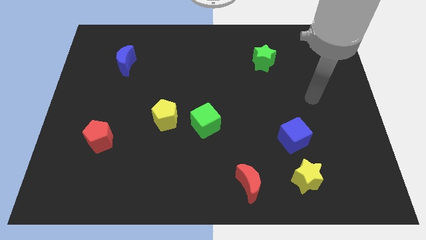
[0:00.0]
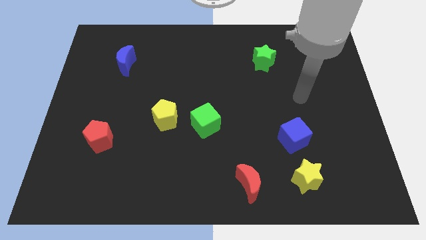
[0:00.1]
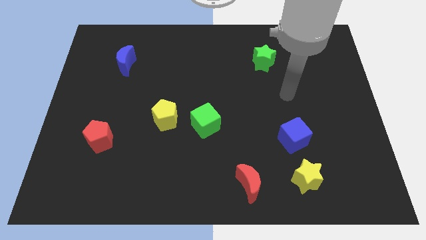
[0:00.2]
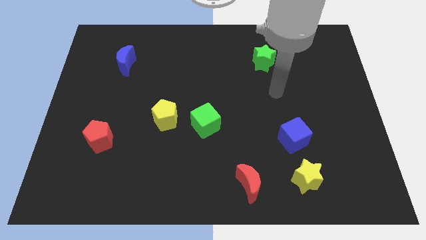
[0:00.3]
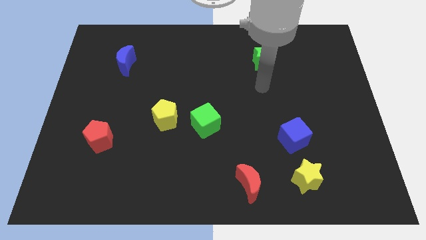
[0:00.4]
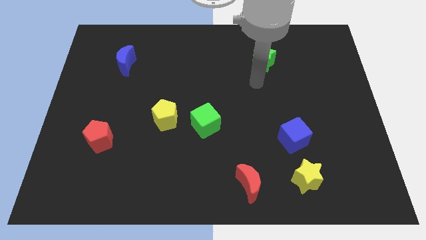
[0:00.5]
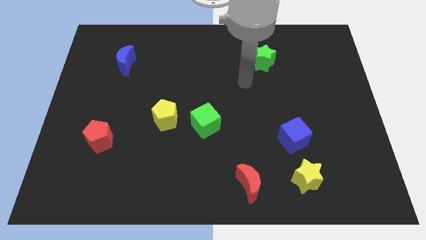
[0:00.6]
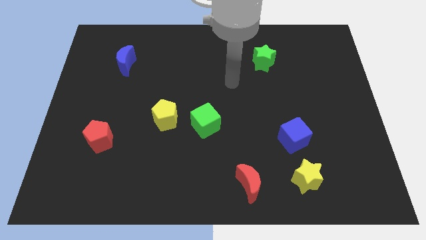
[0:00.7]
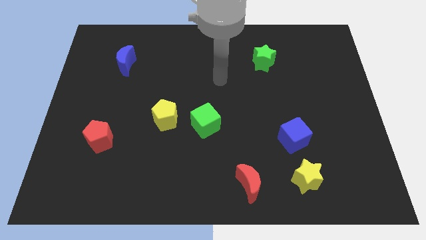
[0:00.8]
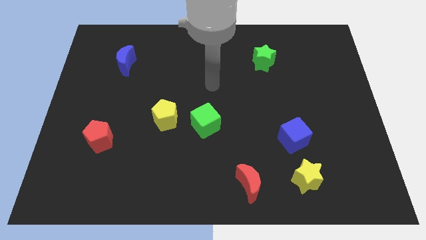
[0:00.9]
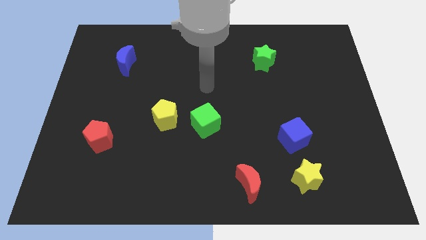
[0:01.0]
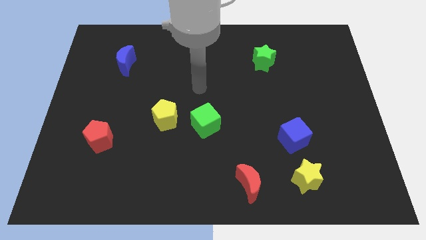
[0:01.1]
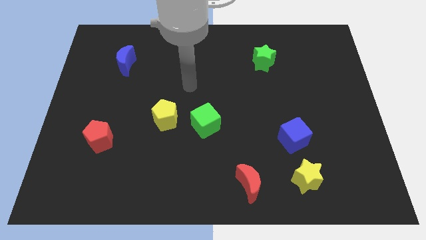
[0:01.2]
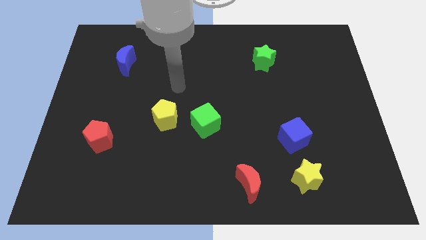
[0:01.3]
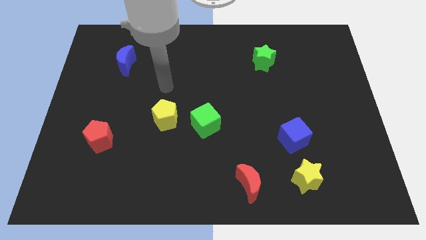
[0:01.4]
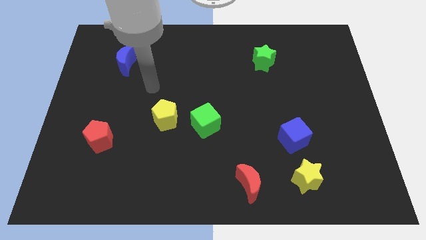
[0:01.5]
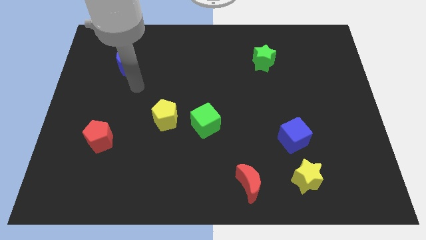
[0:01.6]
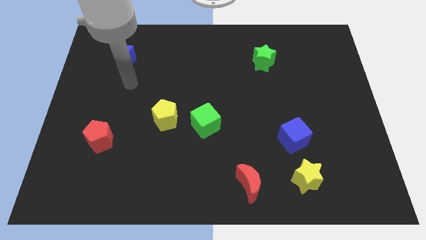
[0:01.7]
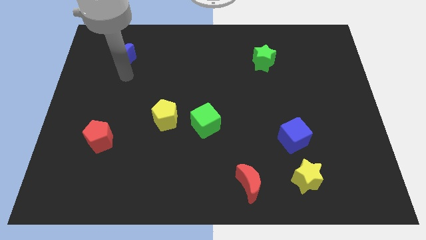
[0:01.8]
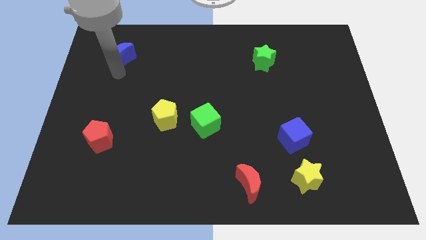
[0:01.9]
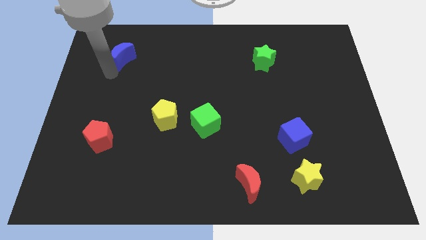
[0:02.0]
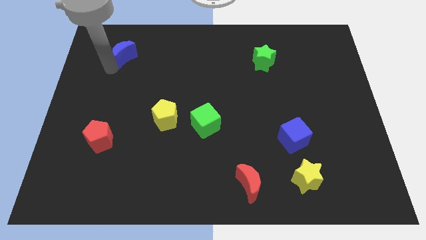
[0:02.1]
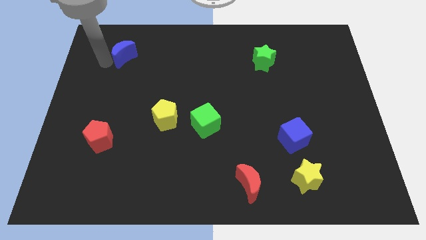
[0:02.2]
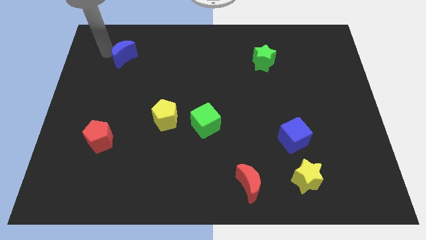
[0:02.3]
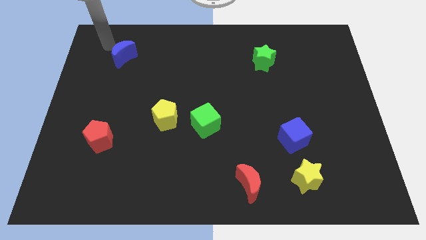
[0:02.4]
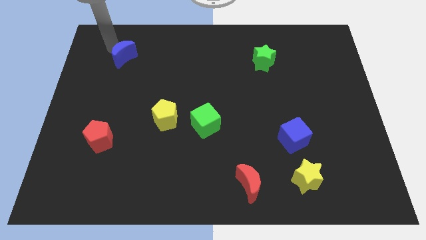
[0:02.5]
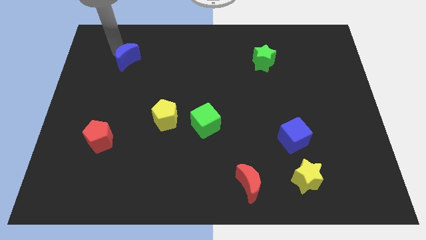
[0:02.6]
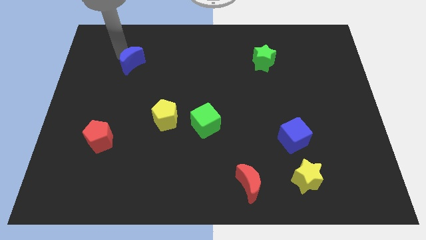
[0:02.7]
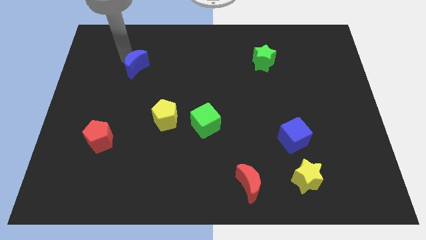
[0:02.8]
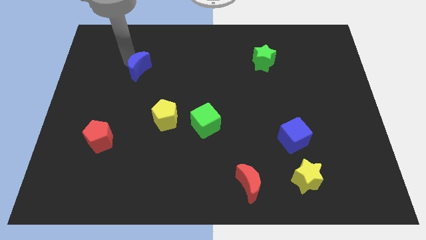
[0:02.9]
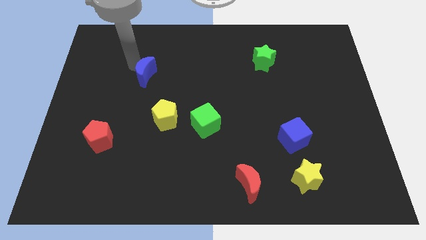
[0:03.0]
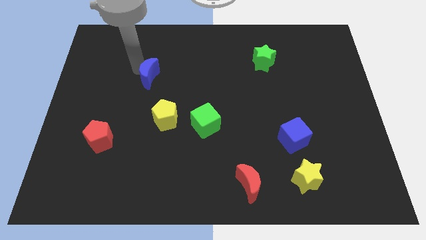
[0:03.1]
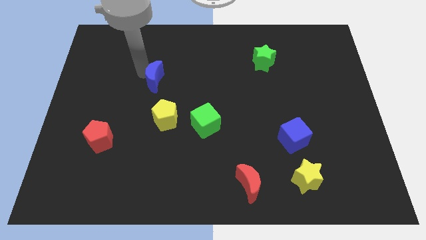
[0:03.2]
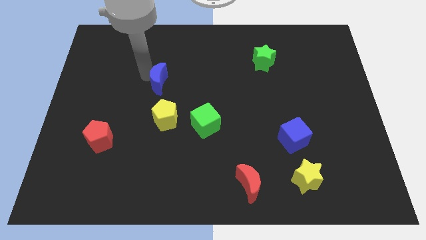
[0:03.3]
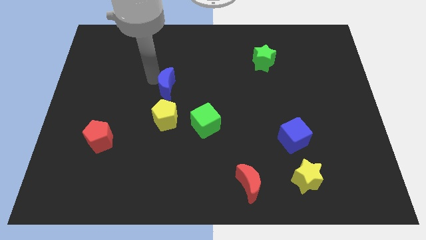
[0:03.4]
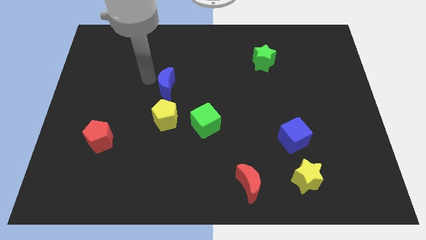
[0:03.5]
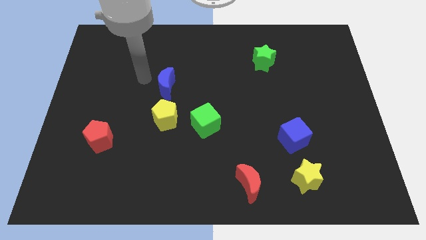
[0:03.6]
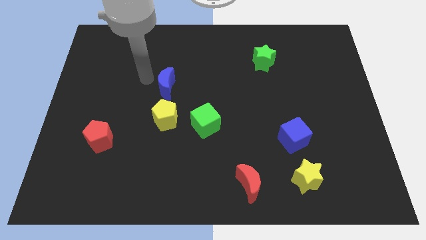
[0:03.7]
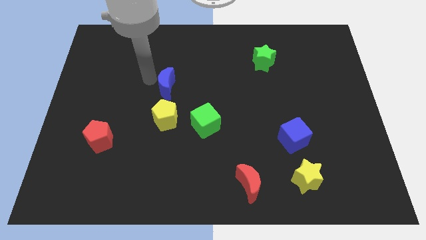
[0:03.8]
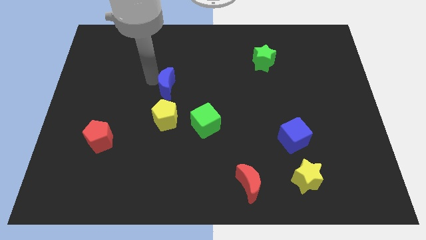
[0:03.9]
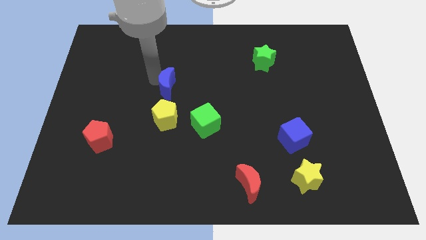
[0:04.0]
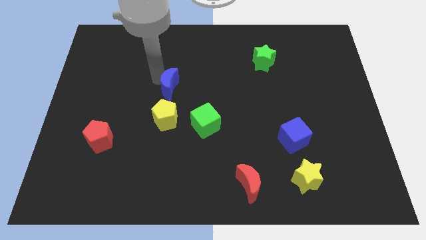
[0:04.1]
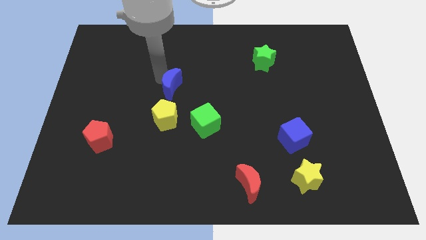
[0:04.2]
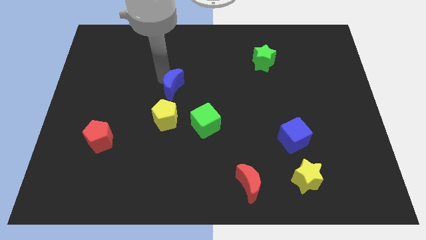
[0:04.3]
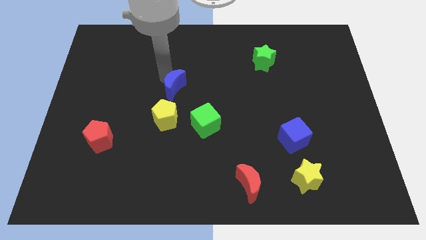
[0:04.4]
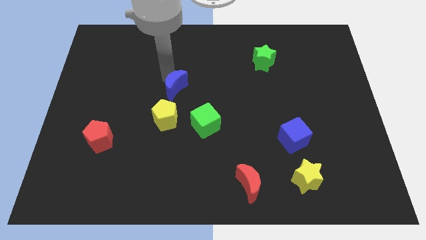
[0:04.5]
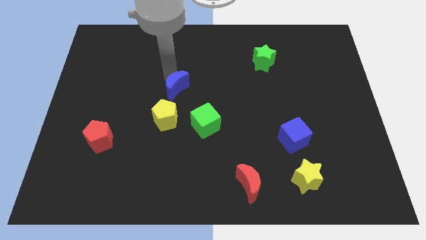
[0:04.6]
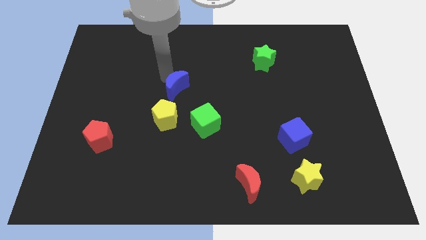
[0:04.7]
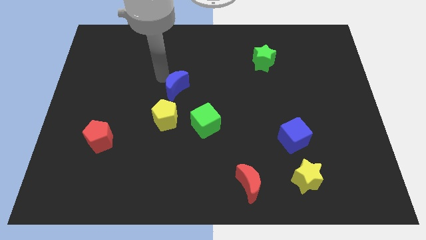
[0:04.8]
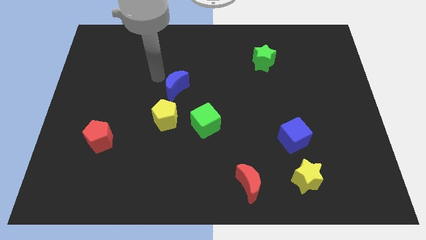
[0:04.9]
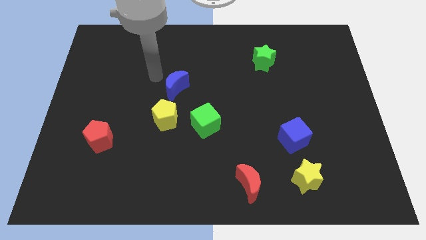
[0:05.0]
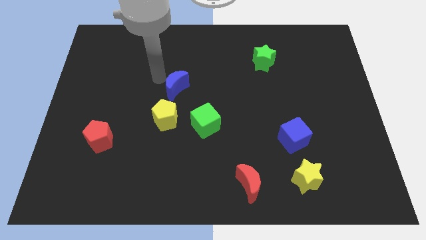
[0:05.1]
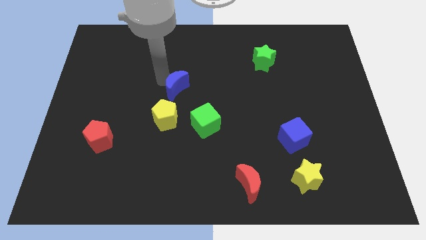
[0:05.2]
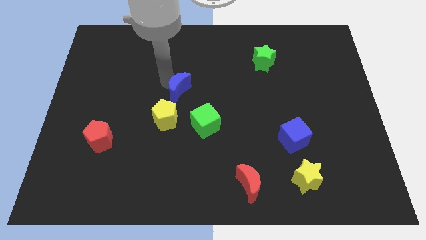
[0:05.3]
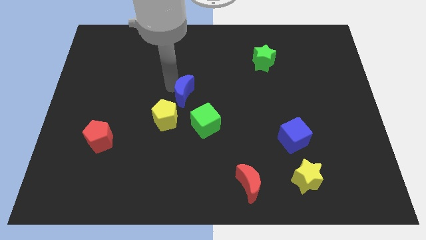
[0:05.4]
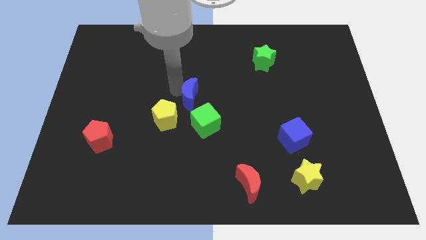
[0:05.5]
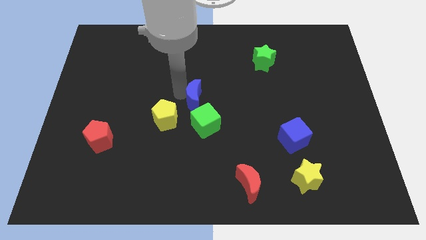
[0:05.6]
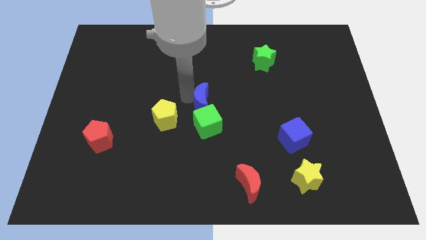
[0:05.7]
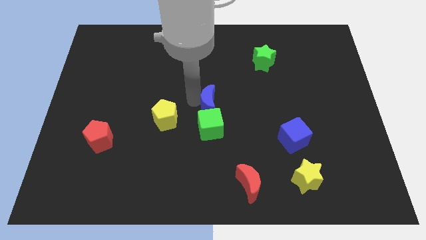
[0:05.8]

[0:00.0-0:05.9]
slide the blue moon diagonally up and to the right of the green cube

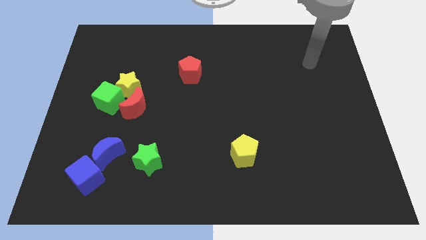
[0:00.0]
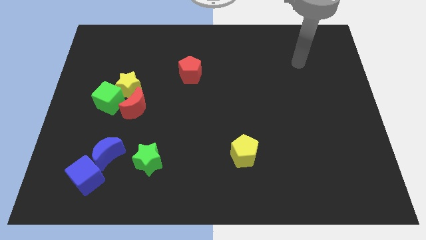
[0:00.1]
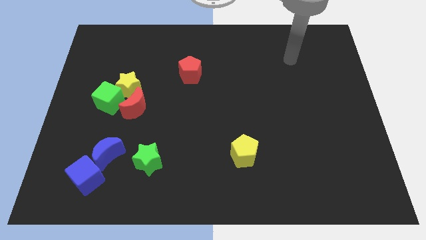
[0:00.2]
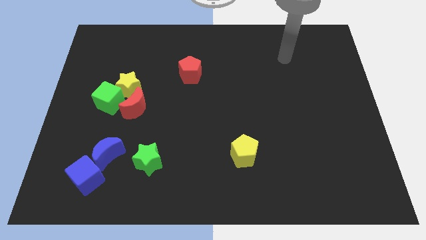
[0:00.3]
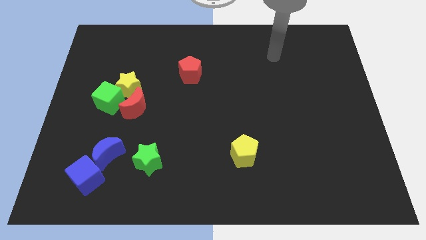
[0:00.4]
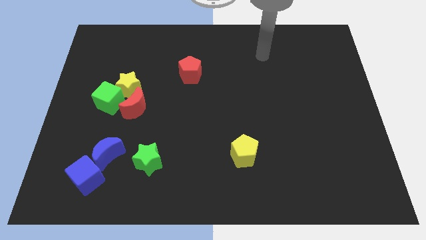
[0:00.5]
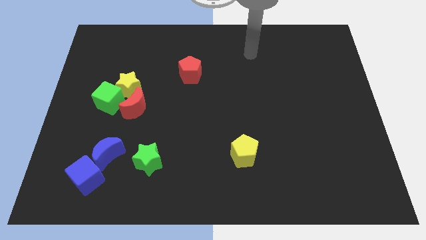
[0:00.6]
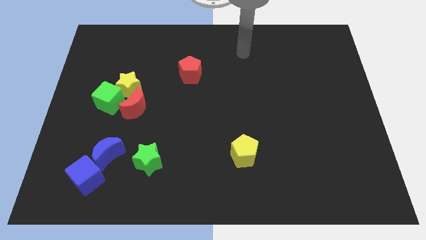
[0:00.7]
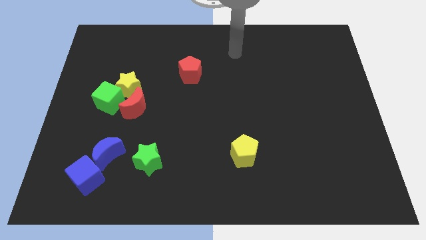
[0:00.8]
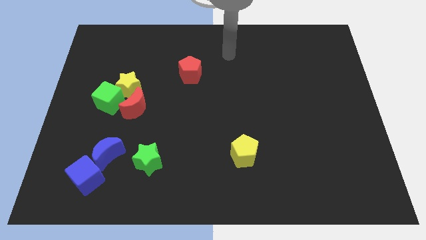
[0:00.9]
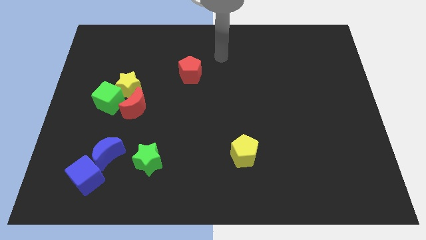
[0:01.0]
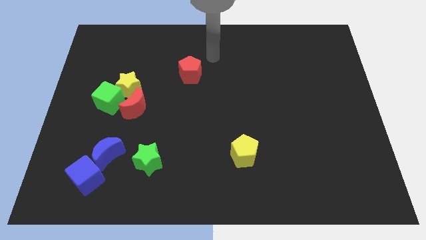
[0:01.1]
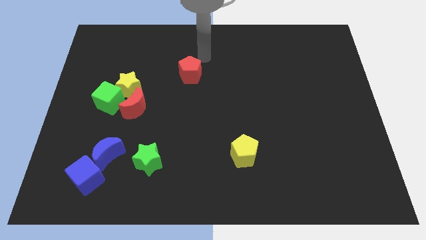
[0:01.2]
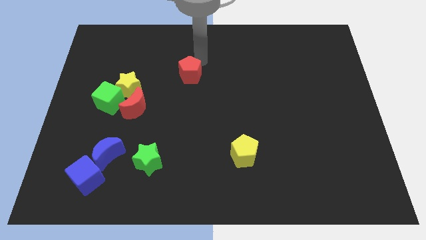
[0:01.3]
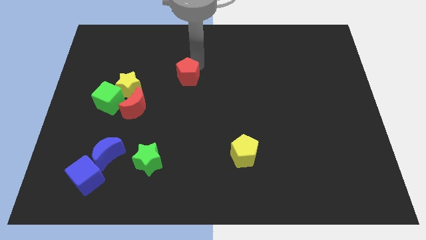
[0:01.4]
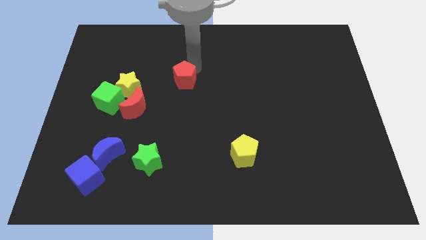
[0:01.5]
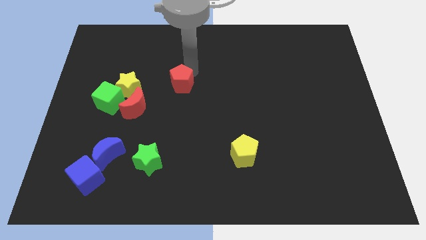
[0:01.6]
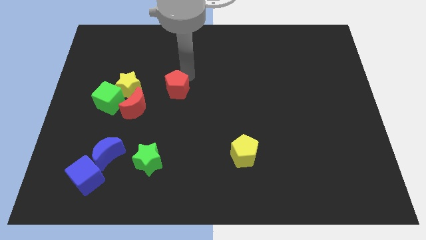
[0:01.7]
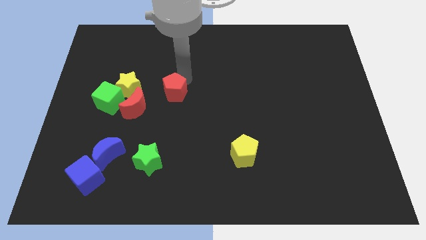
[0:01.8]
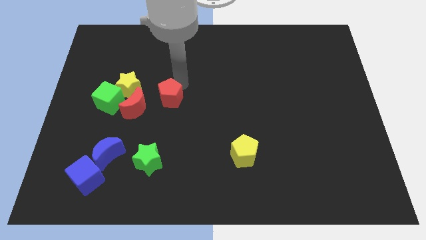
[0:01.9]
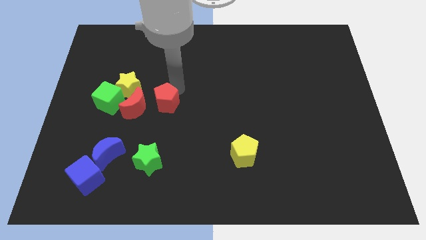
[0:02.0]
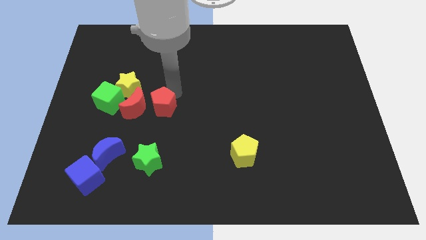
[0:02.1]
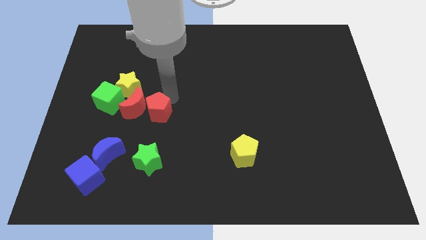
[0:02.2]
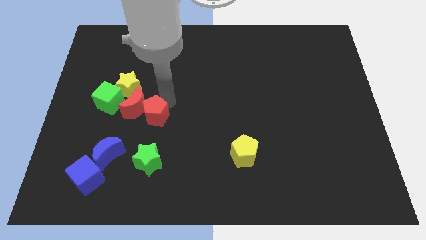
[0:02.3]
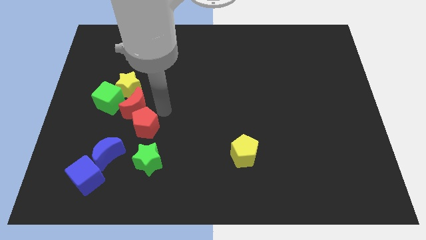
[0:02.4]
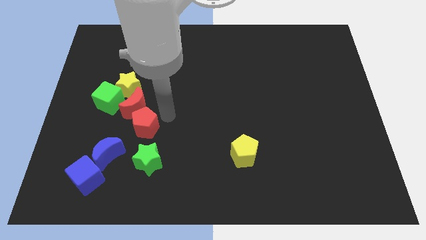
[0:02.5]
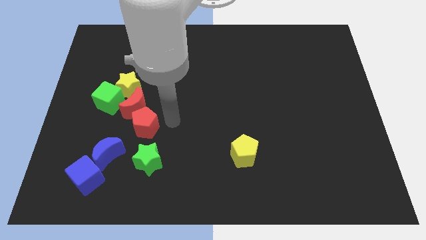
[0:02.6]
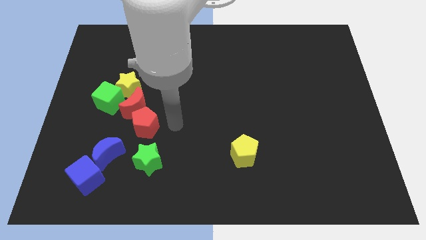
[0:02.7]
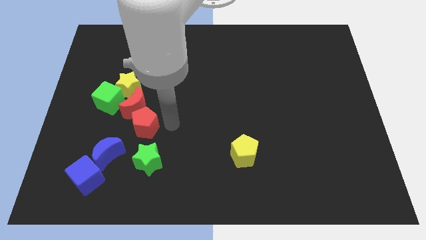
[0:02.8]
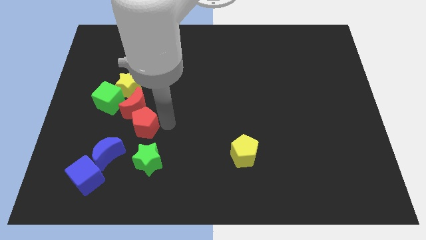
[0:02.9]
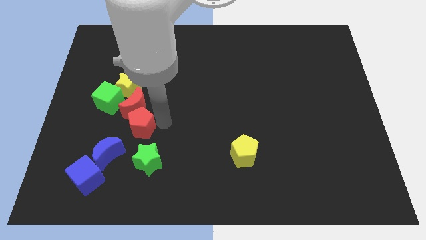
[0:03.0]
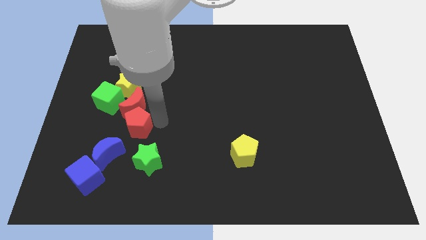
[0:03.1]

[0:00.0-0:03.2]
slide the red pentagon diagonally down and to the left of the red moon
